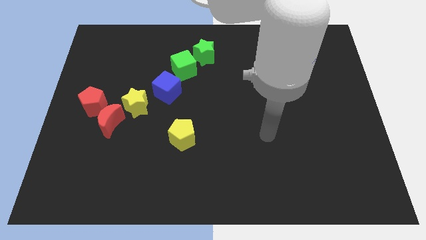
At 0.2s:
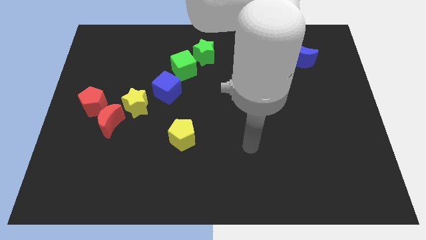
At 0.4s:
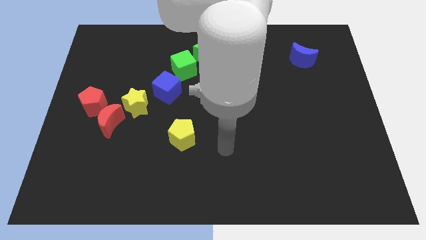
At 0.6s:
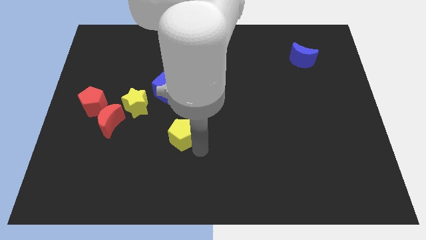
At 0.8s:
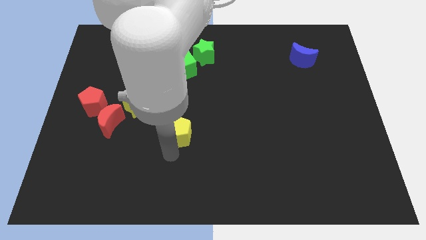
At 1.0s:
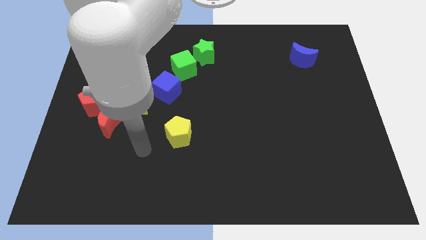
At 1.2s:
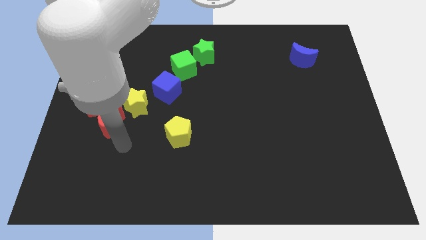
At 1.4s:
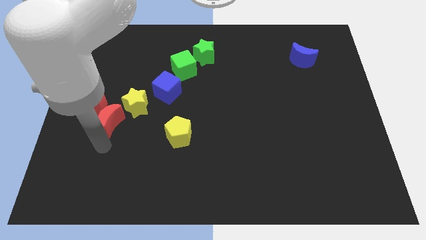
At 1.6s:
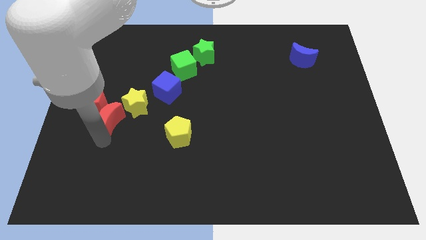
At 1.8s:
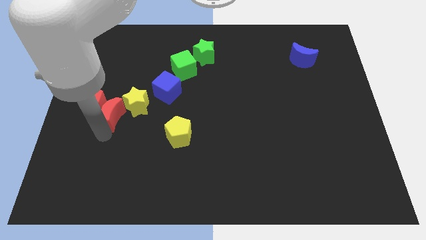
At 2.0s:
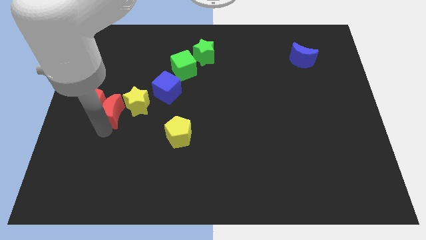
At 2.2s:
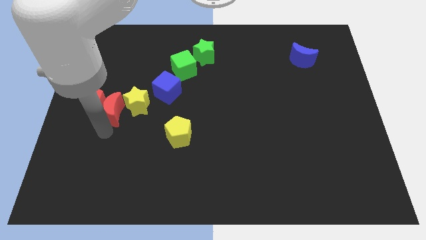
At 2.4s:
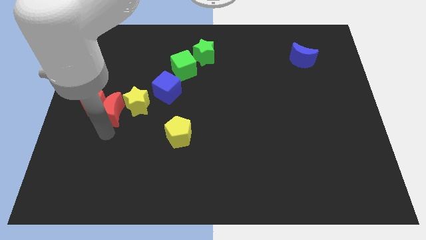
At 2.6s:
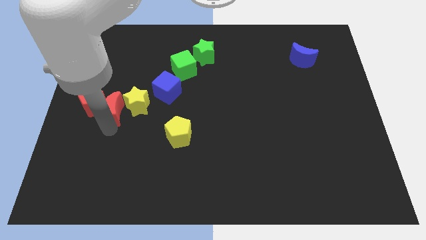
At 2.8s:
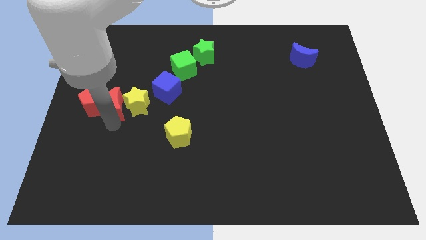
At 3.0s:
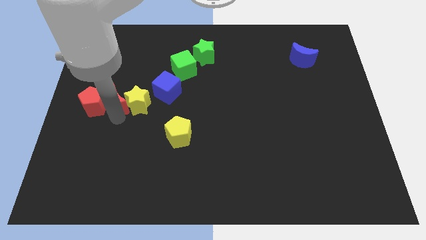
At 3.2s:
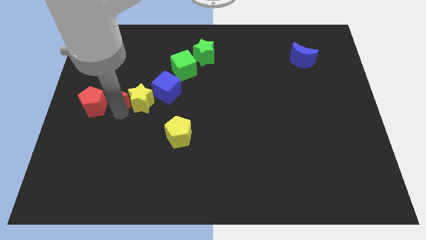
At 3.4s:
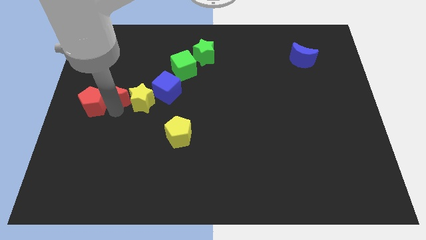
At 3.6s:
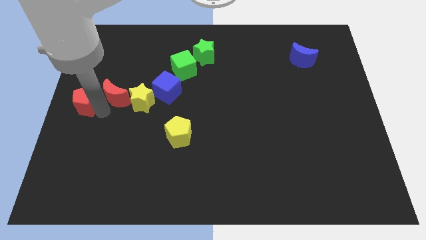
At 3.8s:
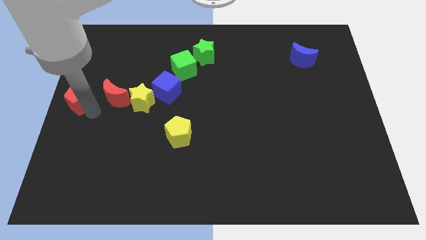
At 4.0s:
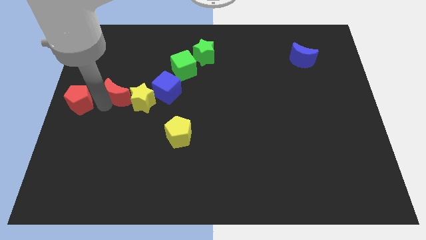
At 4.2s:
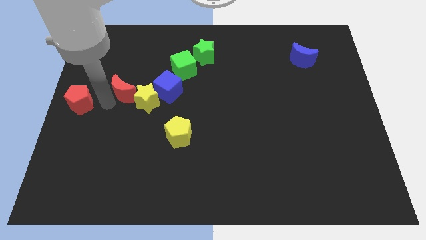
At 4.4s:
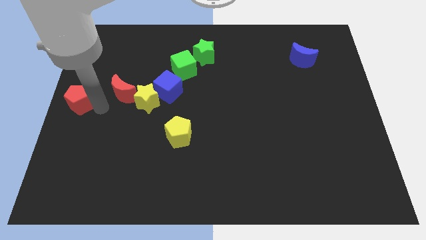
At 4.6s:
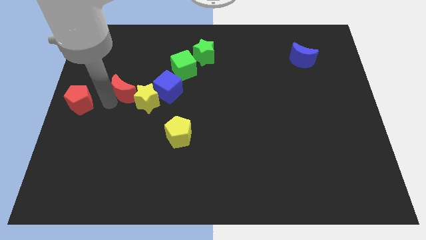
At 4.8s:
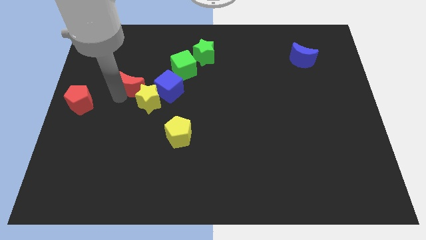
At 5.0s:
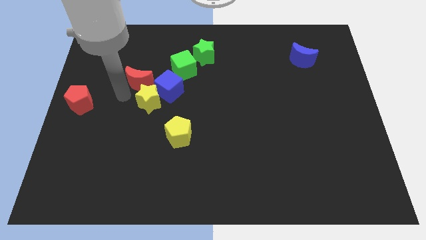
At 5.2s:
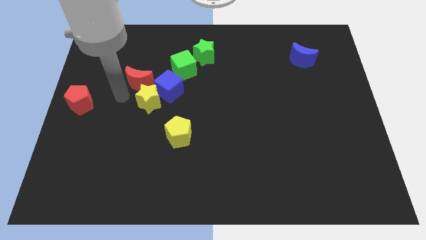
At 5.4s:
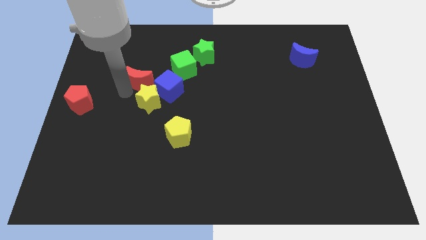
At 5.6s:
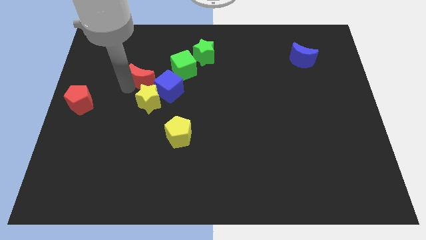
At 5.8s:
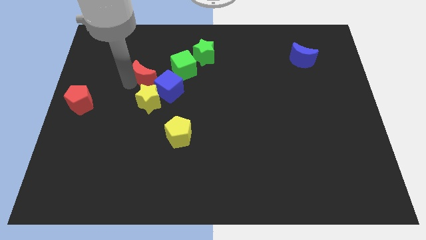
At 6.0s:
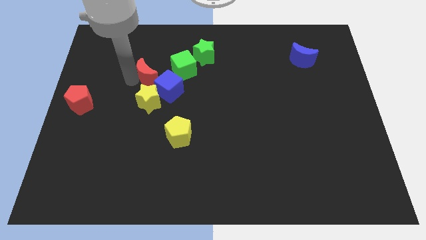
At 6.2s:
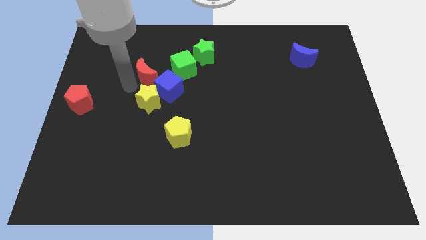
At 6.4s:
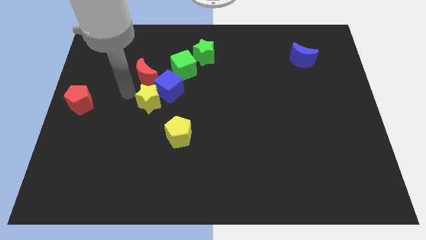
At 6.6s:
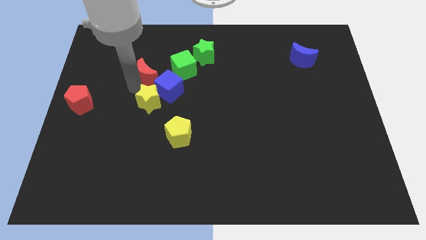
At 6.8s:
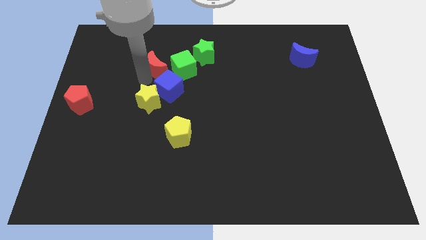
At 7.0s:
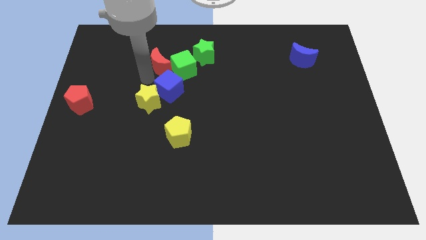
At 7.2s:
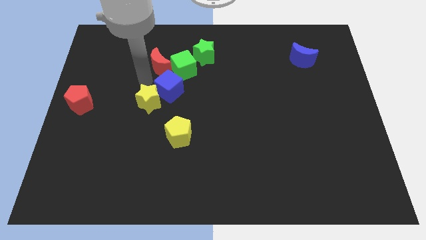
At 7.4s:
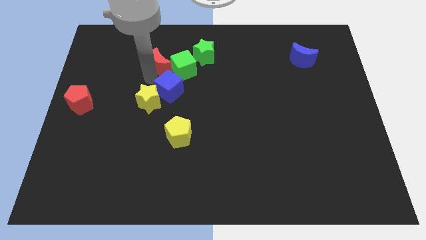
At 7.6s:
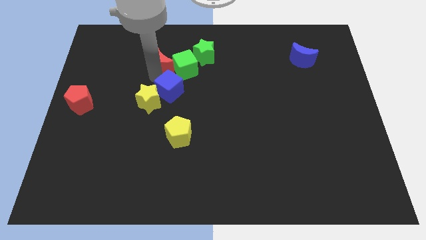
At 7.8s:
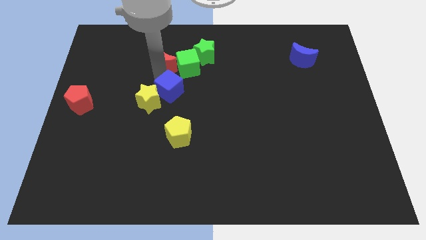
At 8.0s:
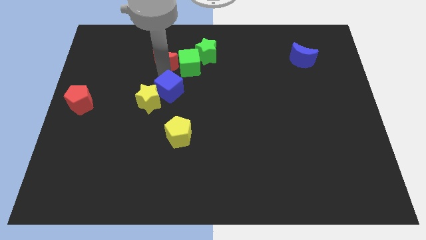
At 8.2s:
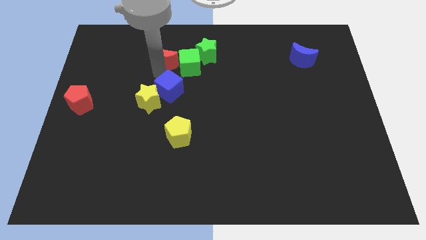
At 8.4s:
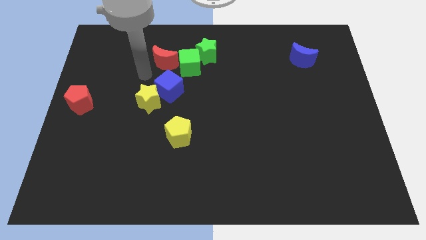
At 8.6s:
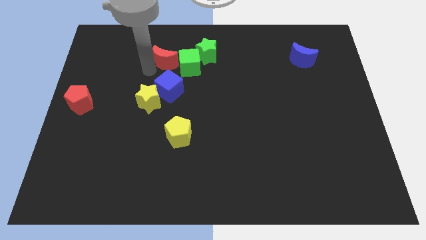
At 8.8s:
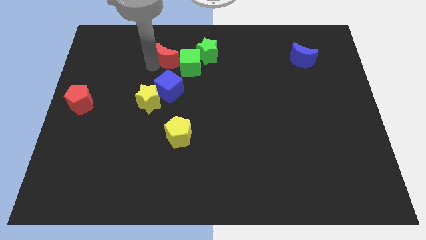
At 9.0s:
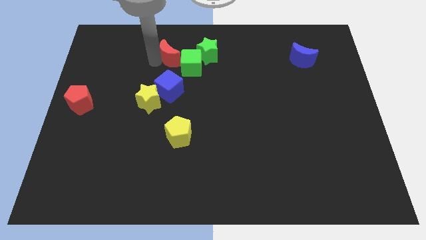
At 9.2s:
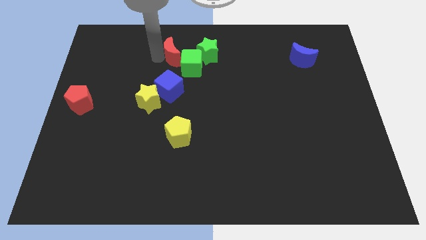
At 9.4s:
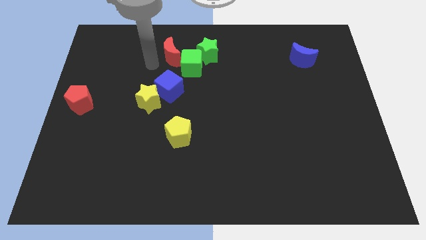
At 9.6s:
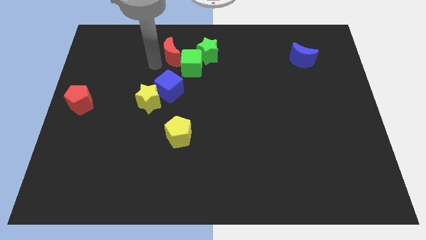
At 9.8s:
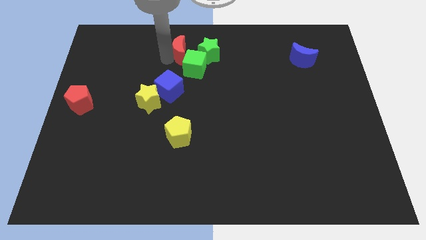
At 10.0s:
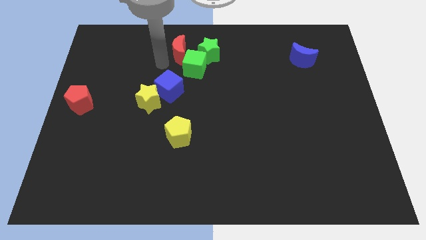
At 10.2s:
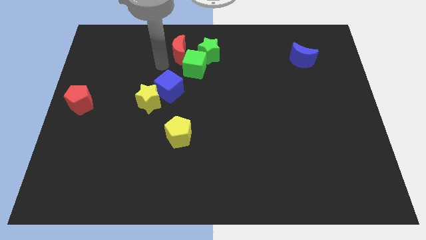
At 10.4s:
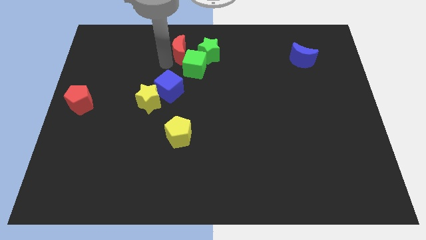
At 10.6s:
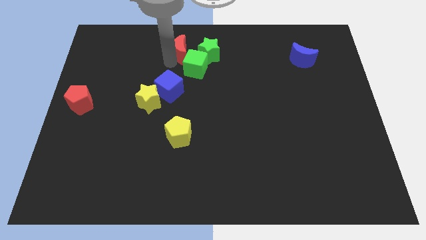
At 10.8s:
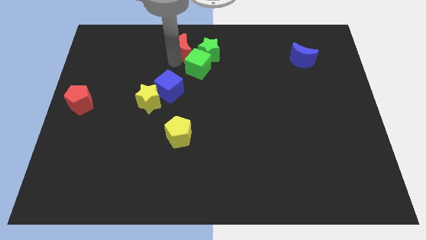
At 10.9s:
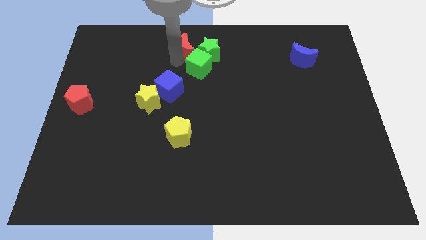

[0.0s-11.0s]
slide the red moon to the towards your base
